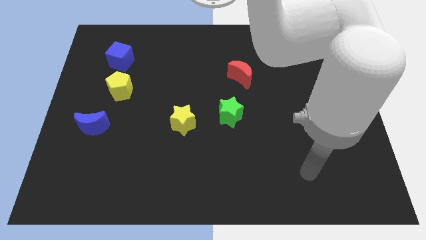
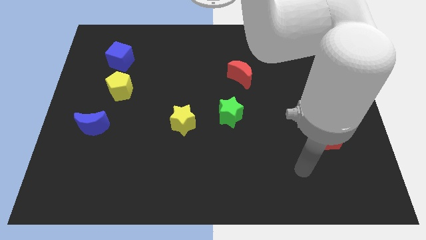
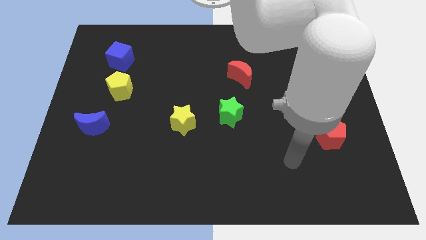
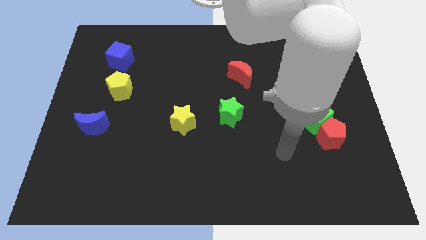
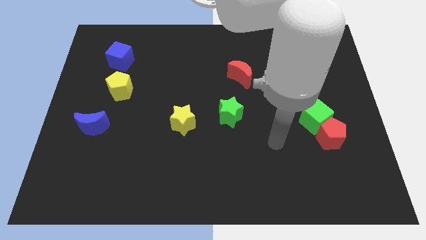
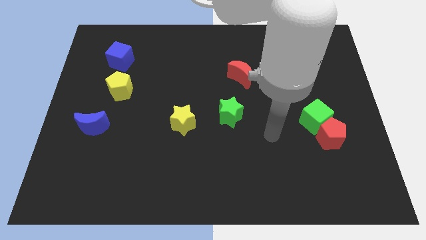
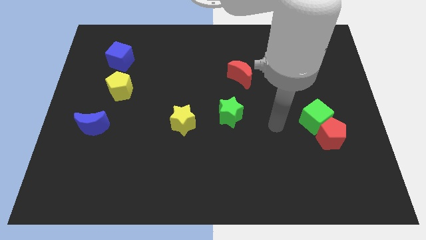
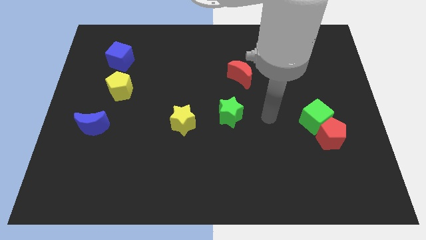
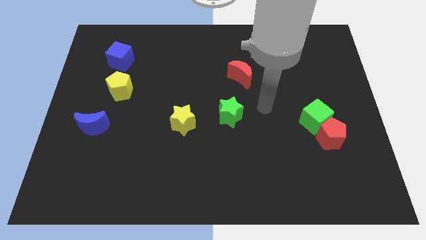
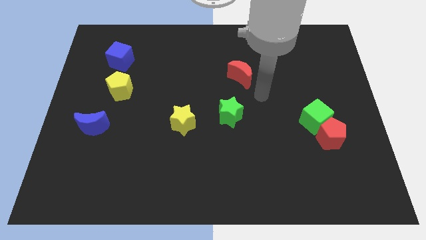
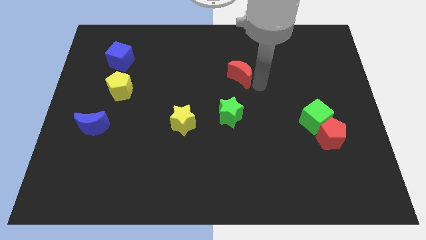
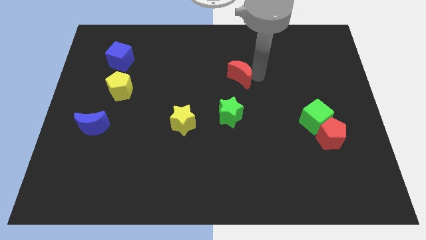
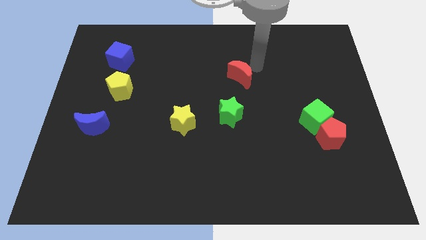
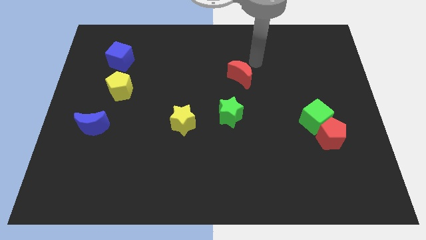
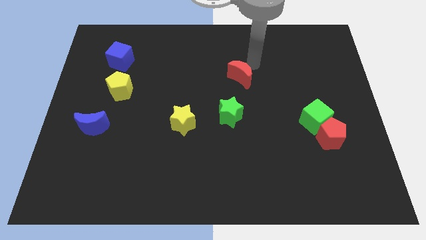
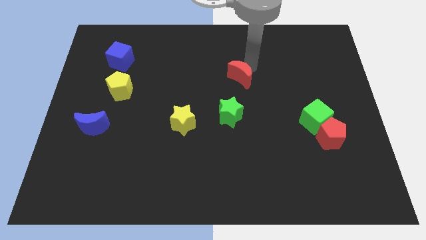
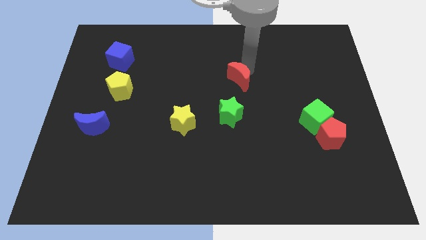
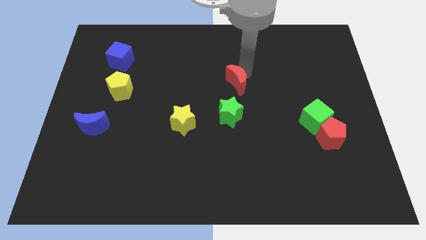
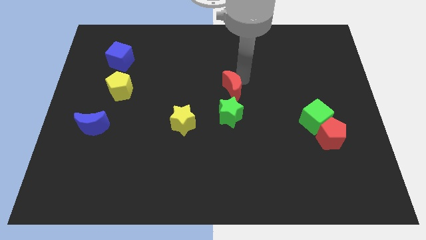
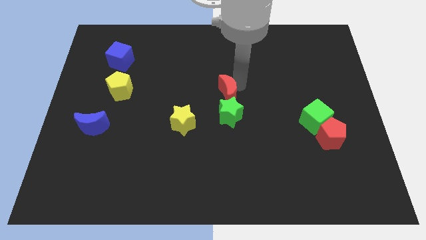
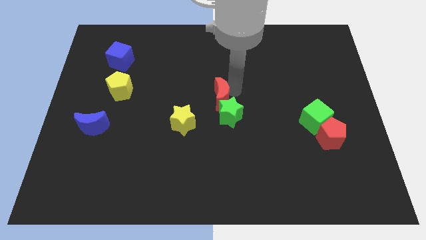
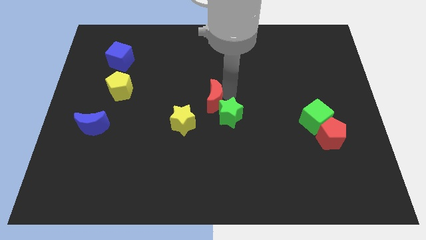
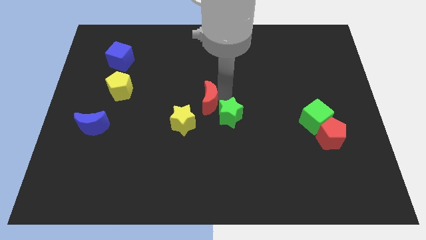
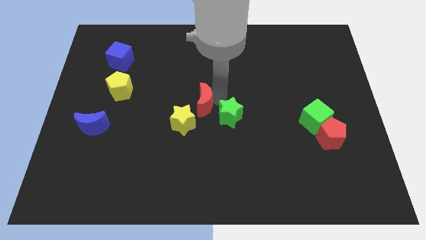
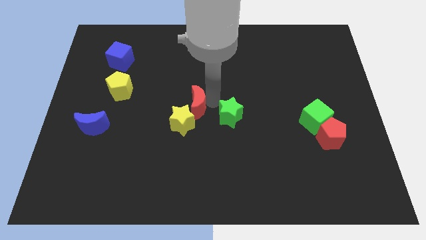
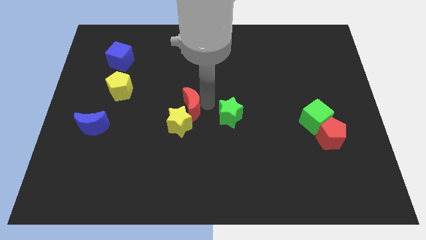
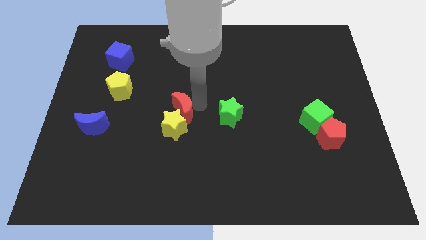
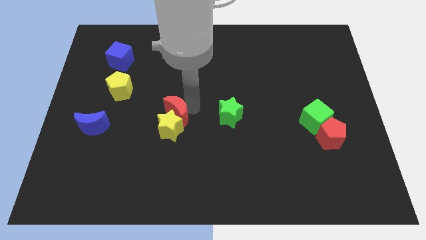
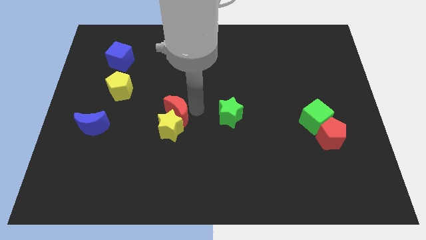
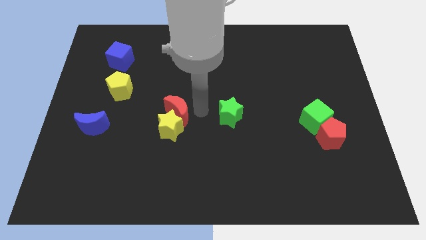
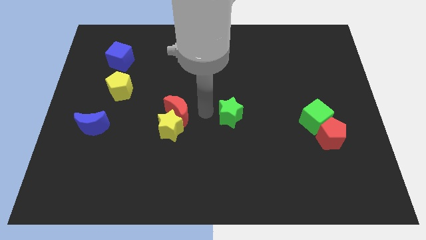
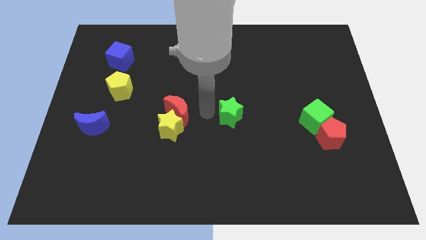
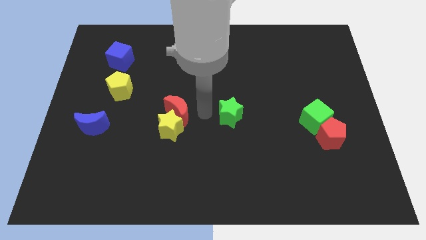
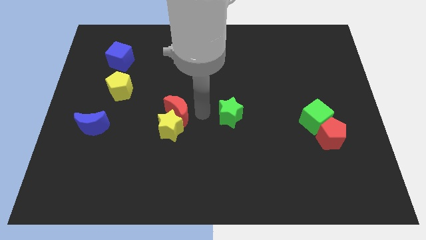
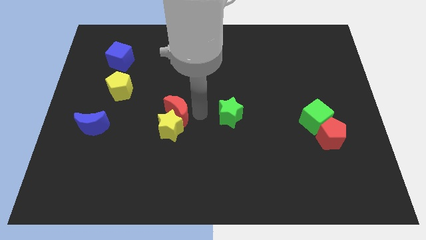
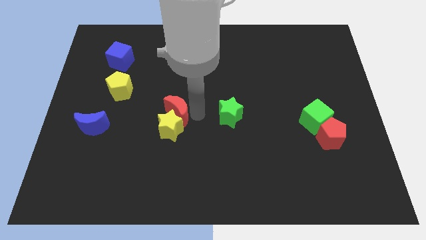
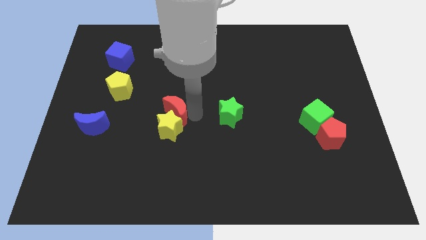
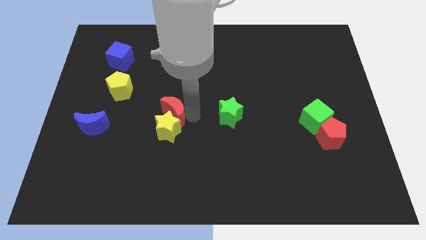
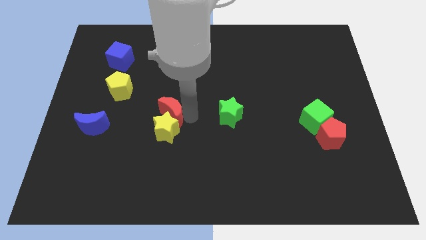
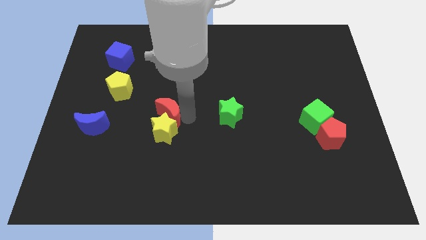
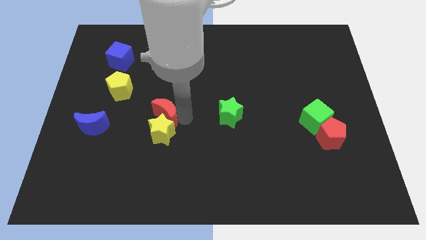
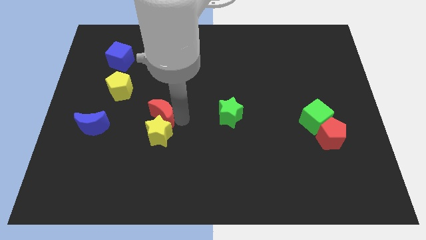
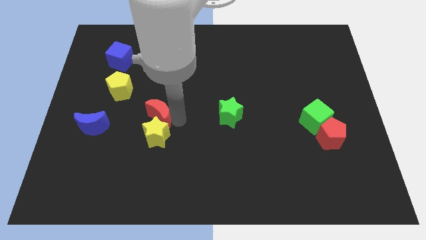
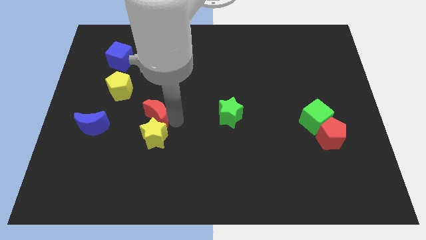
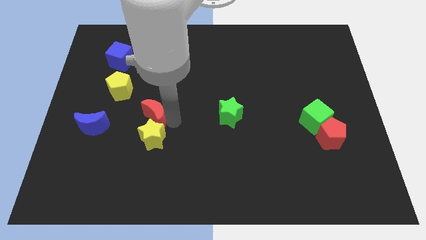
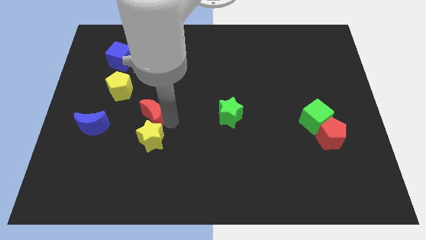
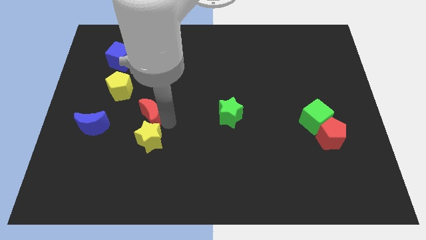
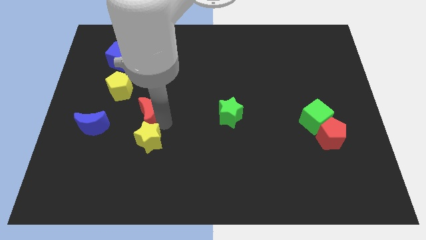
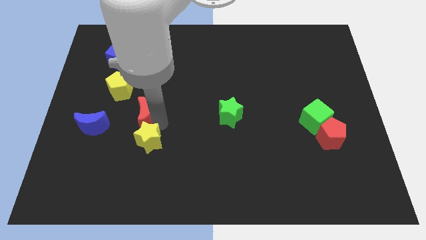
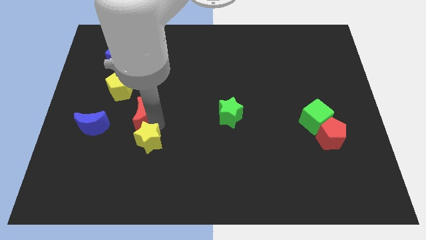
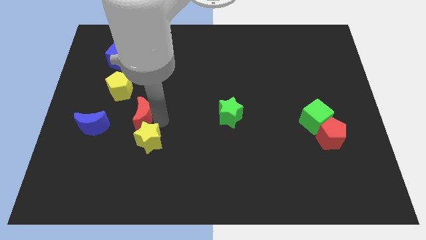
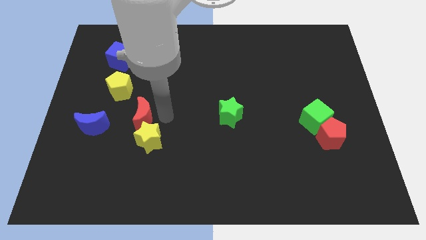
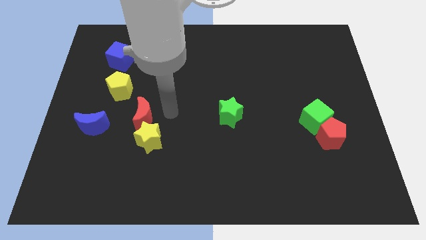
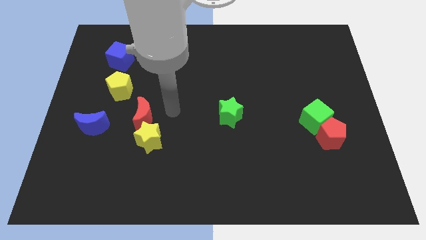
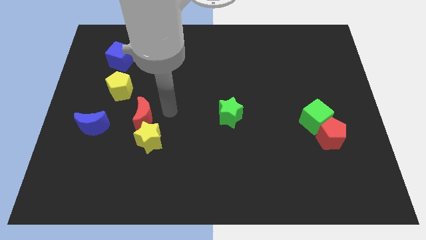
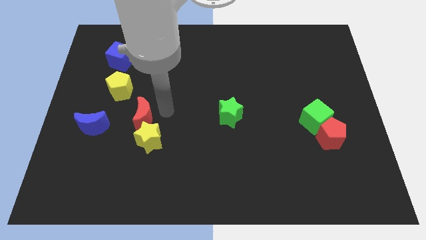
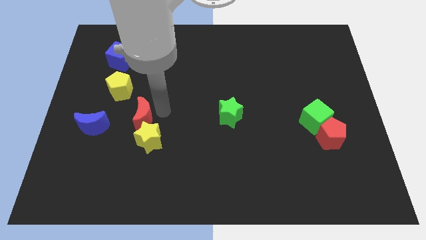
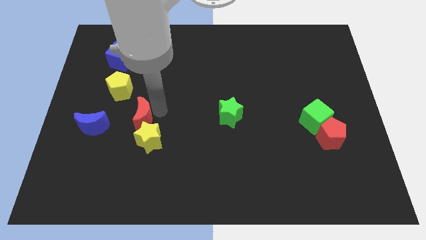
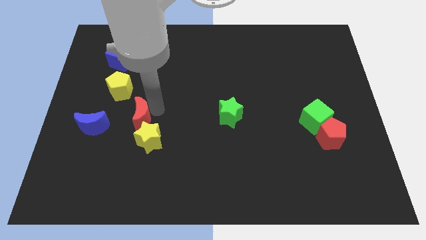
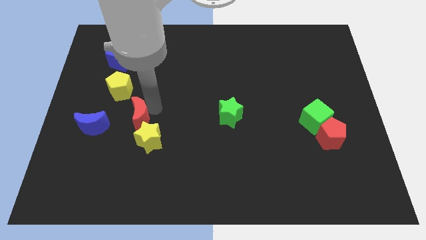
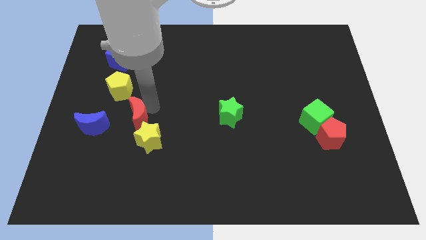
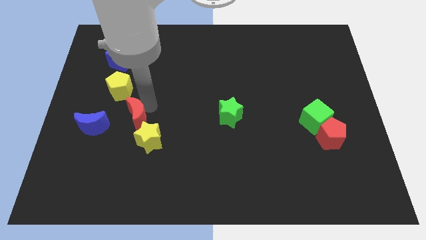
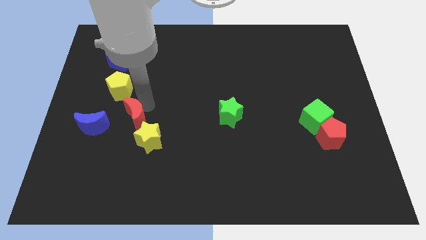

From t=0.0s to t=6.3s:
slide the red moon to the bottom of the yellow pentagon

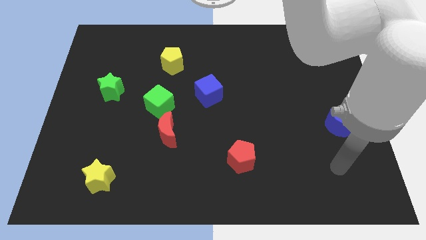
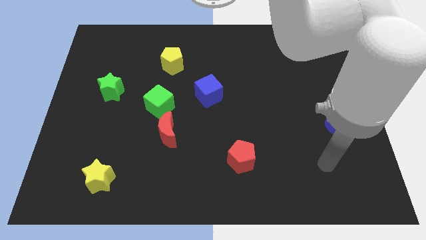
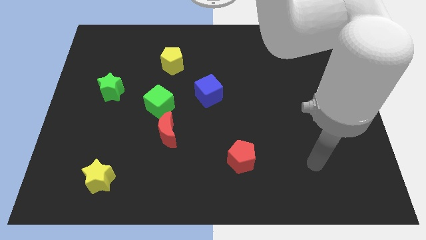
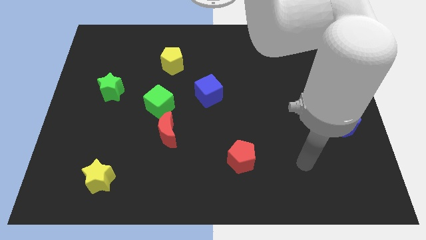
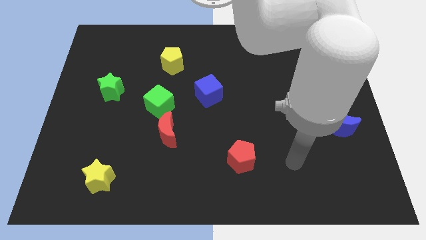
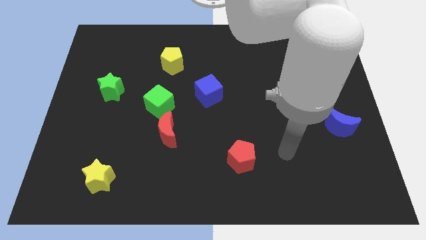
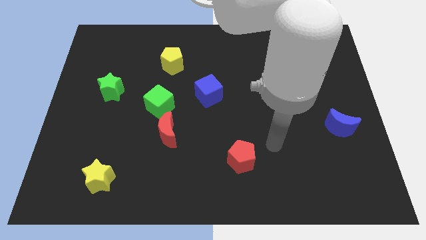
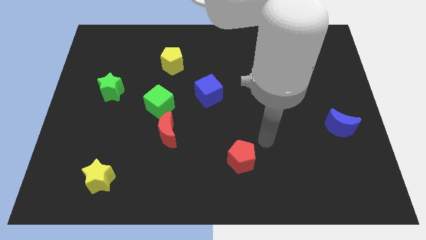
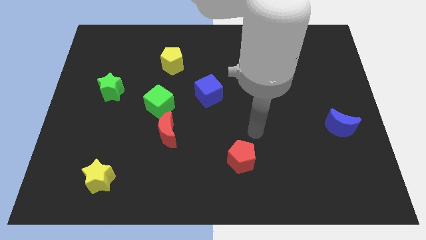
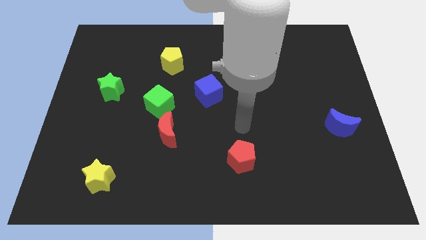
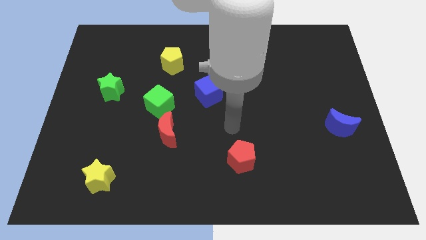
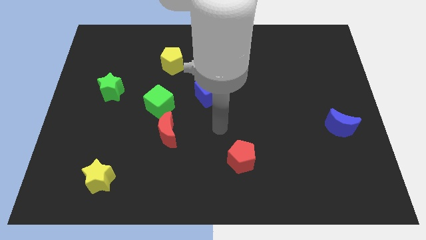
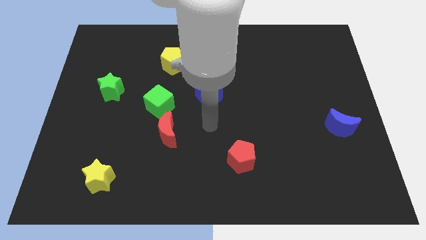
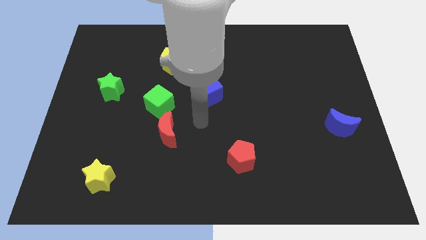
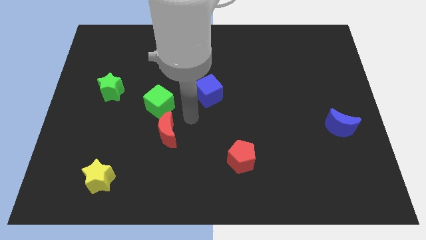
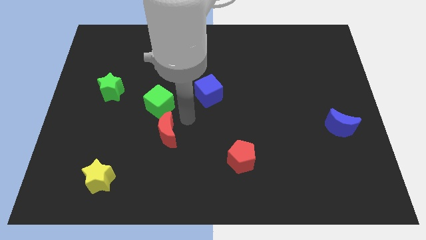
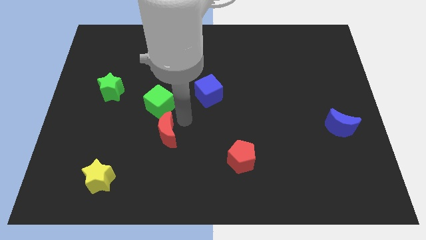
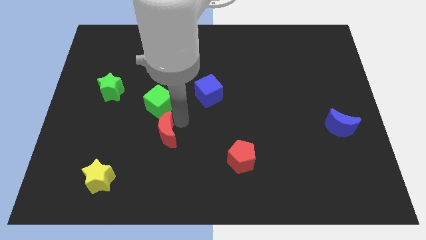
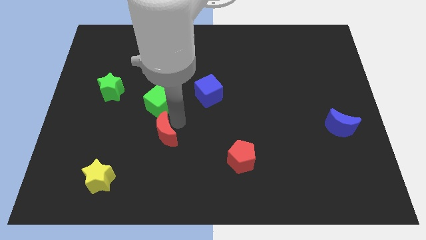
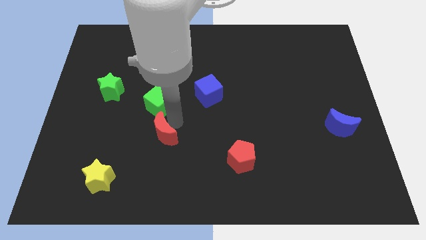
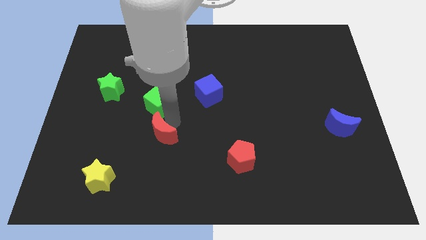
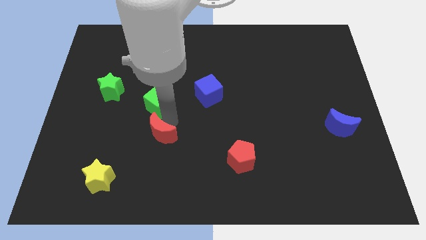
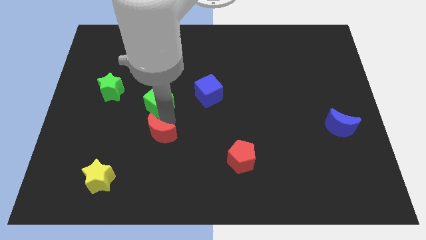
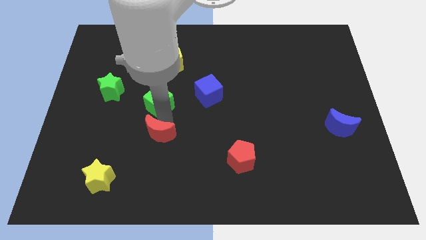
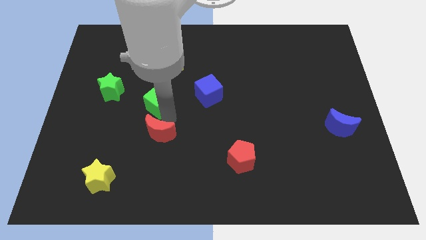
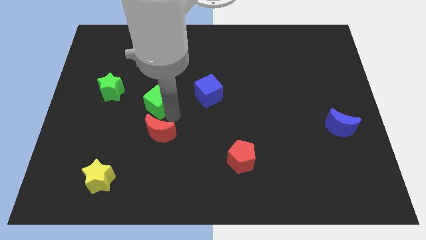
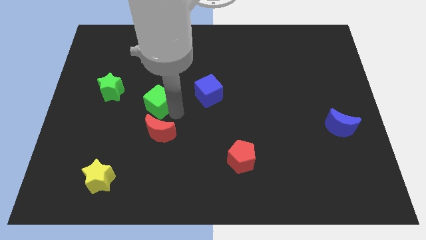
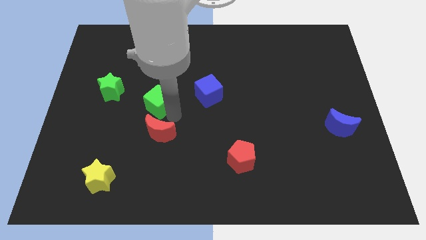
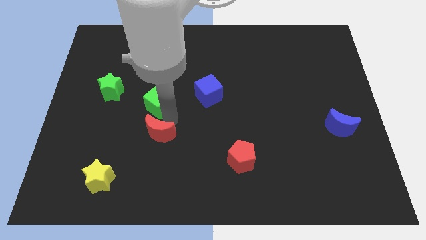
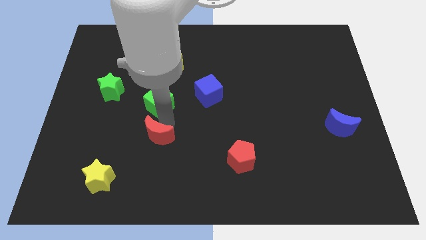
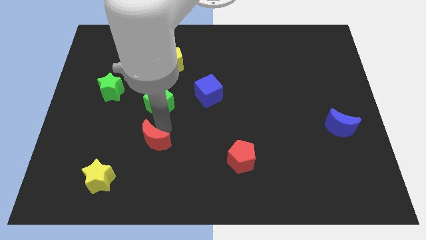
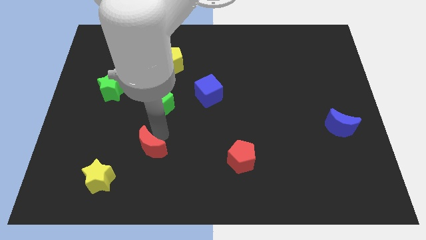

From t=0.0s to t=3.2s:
slide the red moon to the top right side of the yellow star
